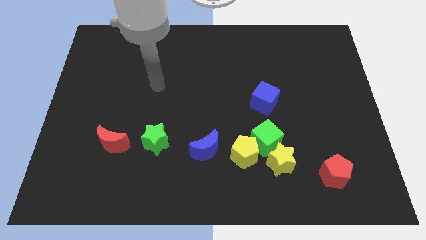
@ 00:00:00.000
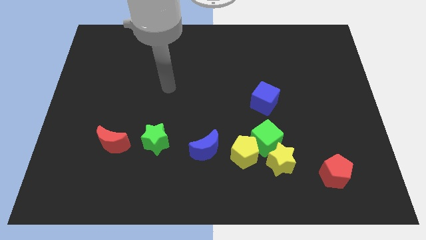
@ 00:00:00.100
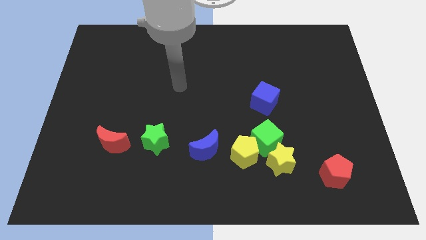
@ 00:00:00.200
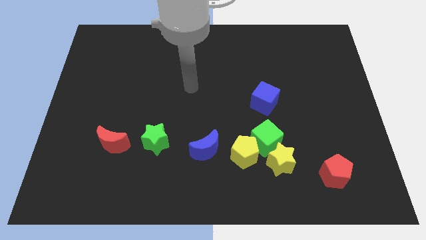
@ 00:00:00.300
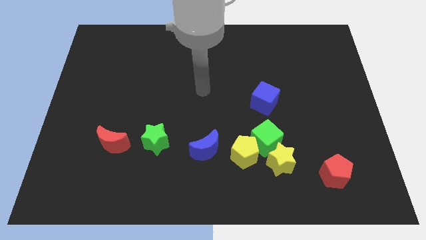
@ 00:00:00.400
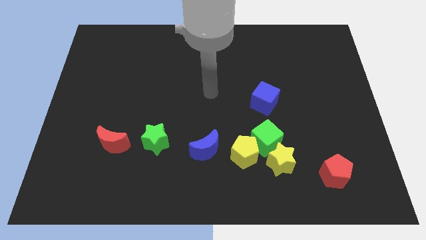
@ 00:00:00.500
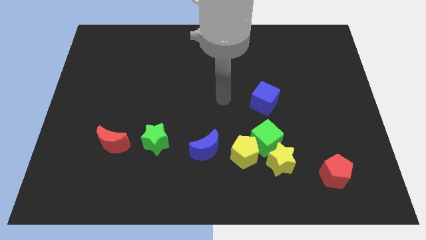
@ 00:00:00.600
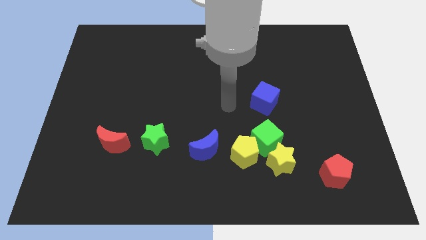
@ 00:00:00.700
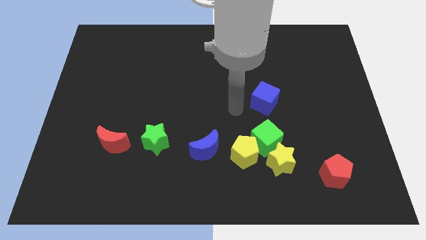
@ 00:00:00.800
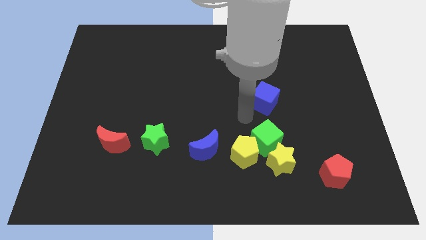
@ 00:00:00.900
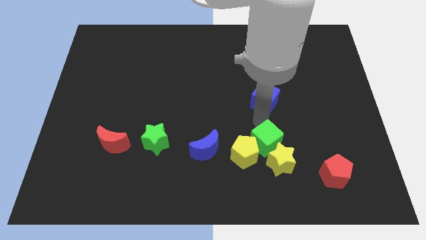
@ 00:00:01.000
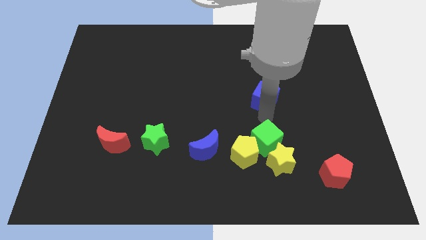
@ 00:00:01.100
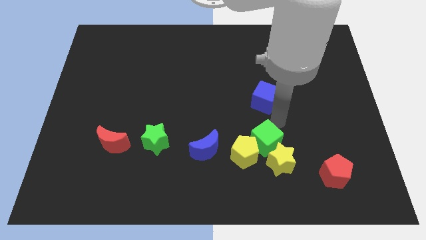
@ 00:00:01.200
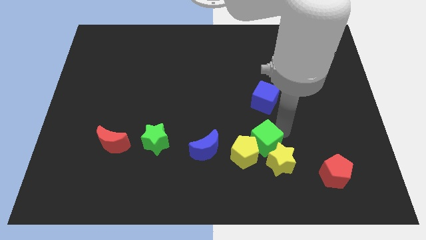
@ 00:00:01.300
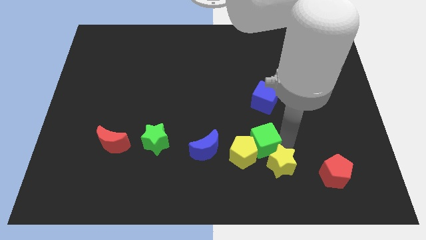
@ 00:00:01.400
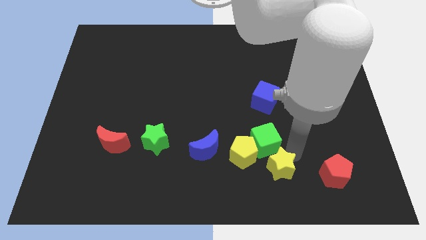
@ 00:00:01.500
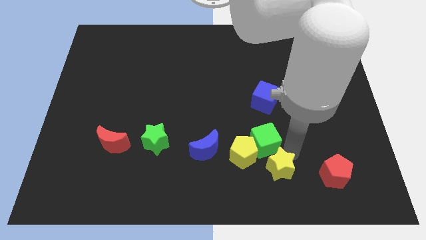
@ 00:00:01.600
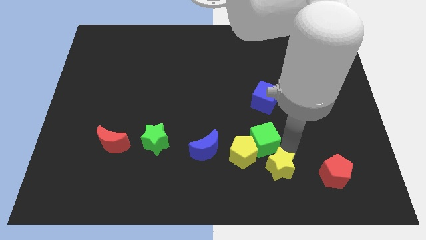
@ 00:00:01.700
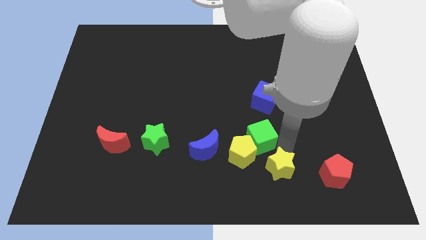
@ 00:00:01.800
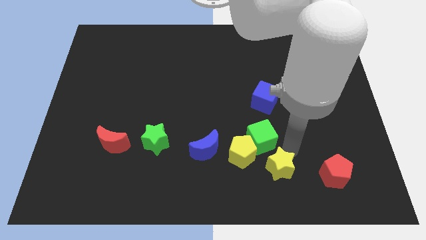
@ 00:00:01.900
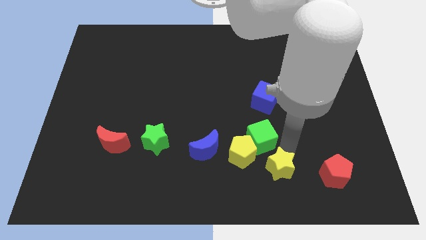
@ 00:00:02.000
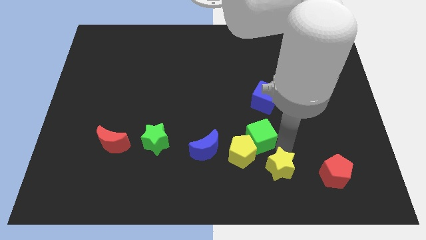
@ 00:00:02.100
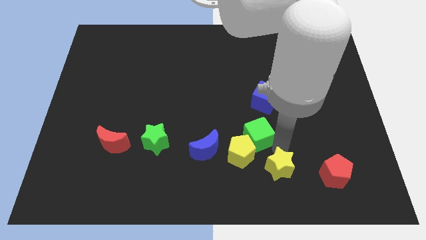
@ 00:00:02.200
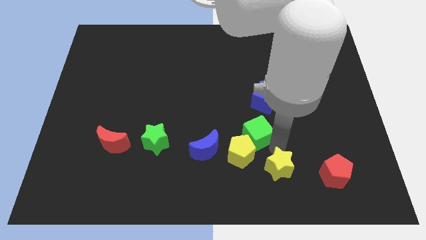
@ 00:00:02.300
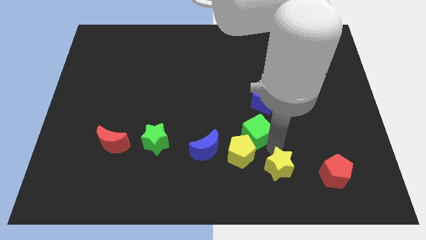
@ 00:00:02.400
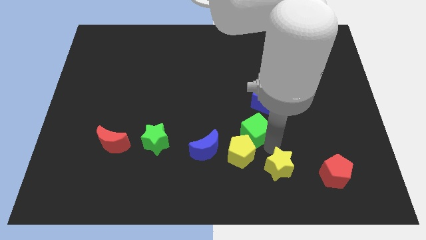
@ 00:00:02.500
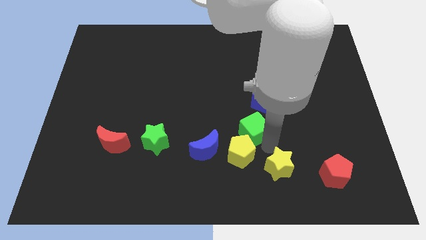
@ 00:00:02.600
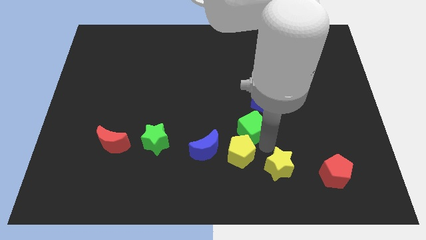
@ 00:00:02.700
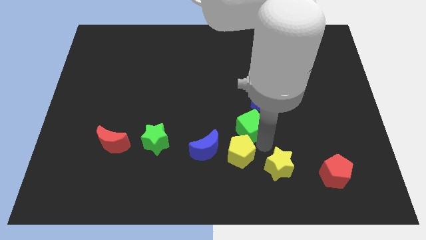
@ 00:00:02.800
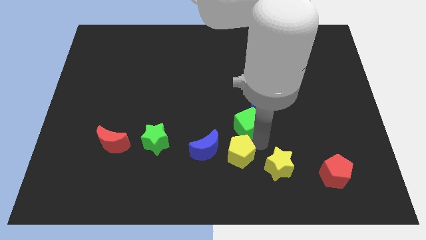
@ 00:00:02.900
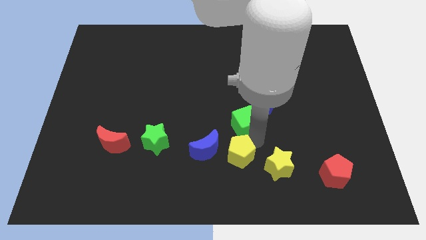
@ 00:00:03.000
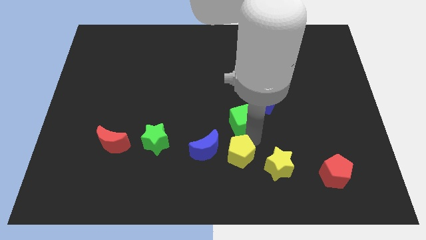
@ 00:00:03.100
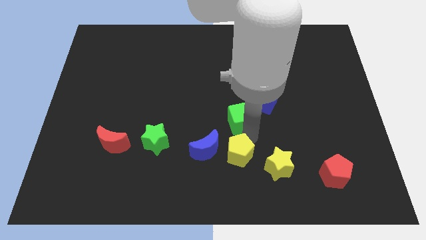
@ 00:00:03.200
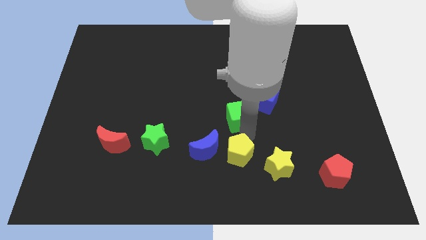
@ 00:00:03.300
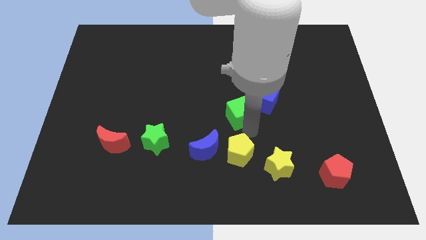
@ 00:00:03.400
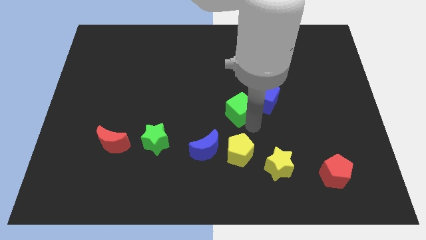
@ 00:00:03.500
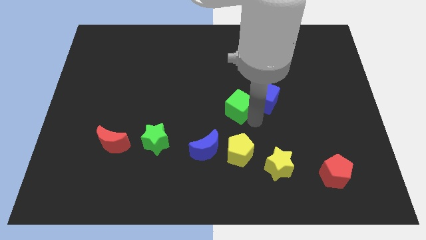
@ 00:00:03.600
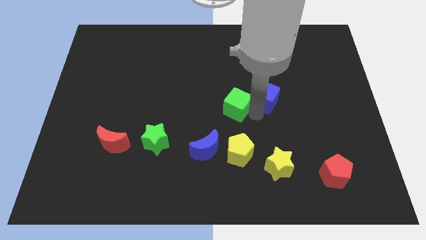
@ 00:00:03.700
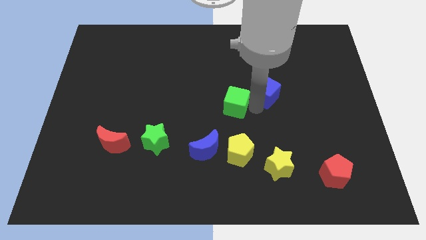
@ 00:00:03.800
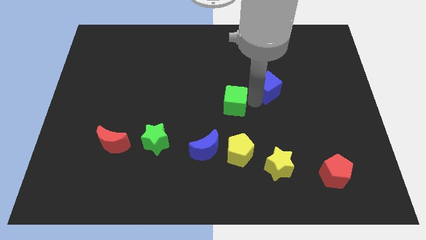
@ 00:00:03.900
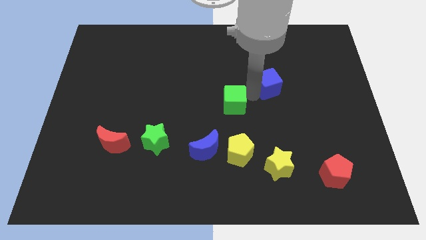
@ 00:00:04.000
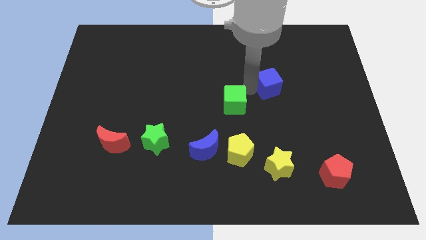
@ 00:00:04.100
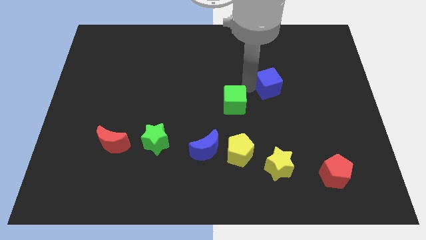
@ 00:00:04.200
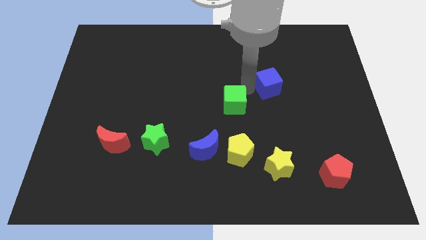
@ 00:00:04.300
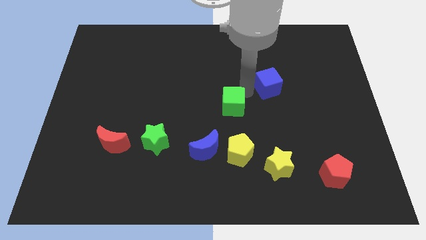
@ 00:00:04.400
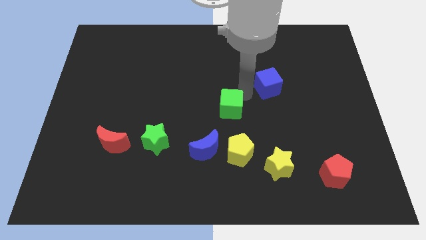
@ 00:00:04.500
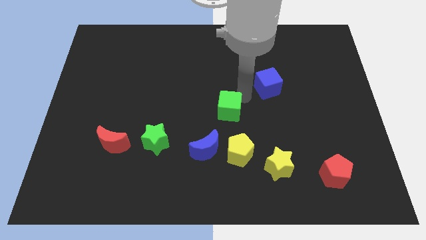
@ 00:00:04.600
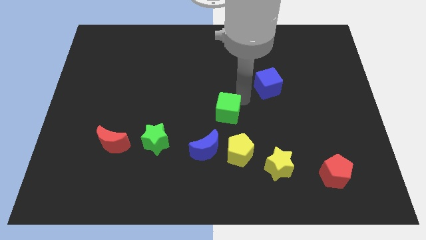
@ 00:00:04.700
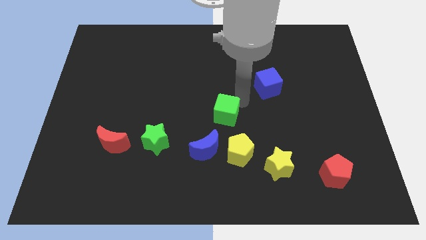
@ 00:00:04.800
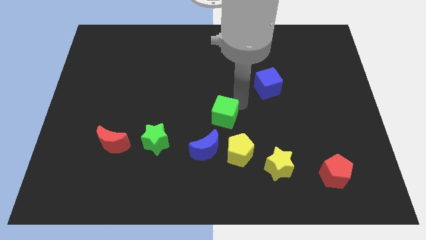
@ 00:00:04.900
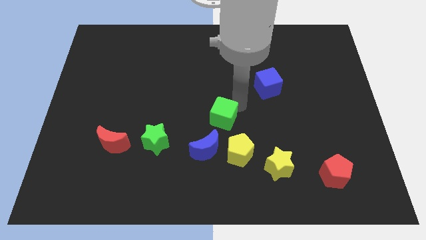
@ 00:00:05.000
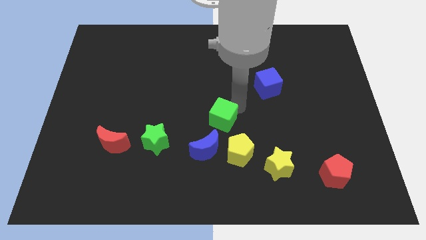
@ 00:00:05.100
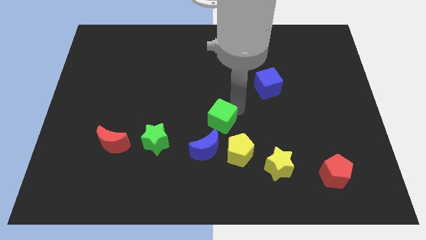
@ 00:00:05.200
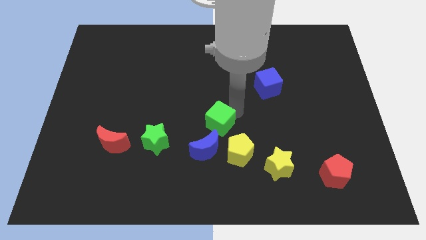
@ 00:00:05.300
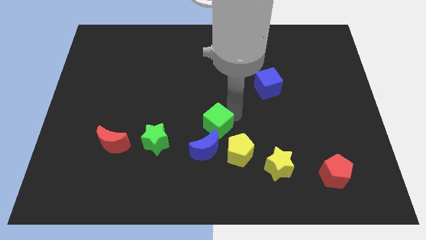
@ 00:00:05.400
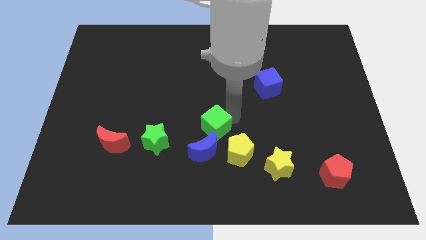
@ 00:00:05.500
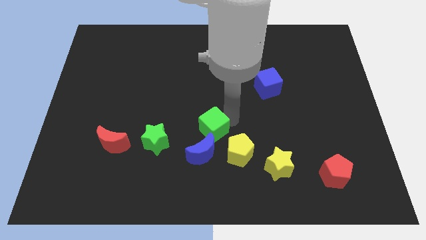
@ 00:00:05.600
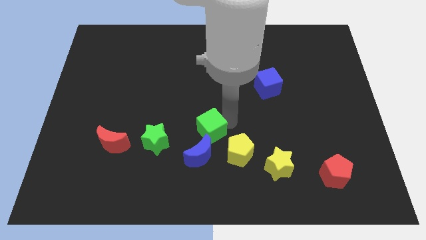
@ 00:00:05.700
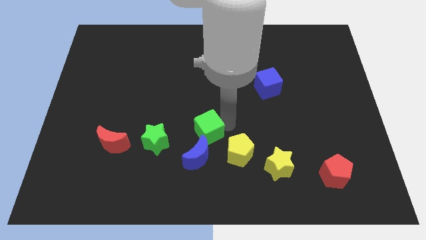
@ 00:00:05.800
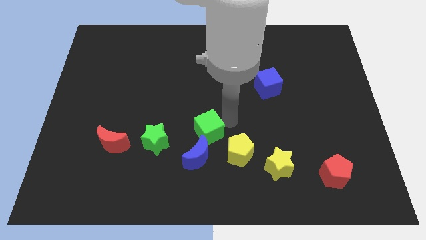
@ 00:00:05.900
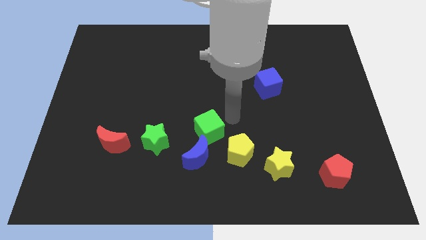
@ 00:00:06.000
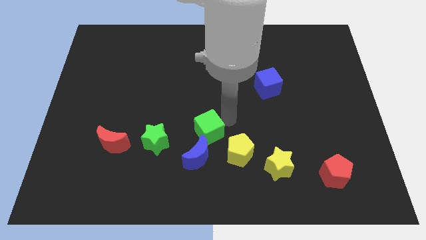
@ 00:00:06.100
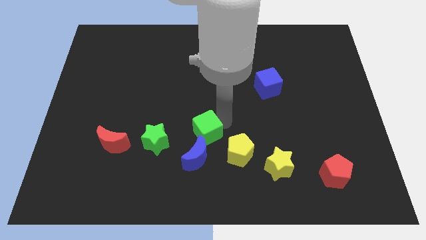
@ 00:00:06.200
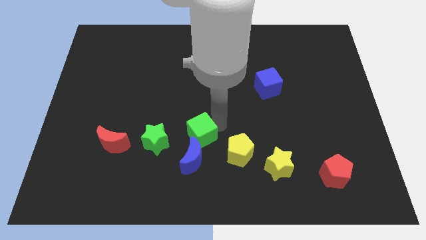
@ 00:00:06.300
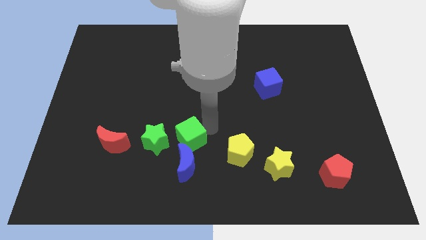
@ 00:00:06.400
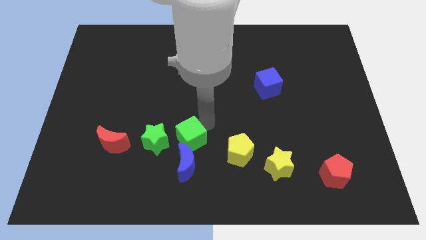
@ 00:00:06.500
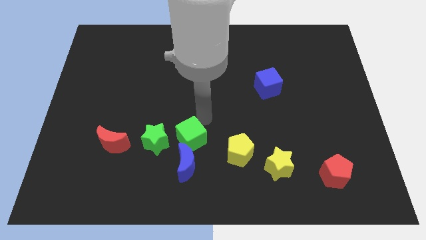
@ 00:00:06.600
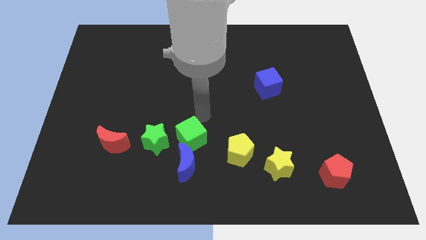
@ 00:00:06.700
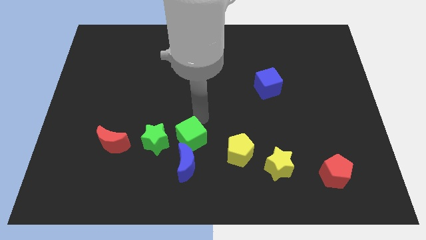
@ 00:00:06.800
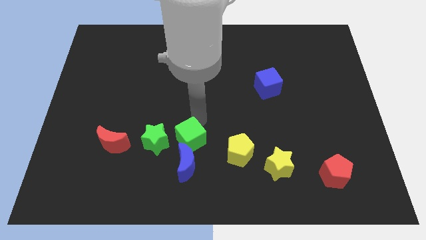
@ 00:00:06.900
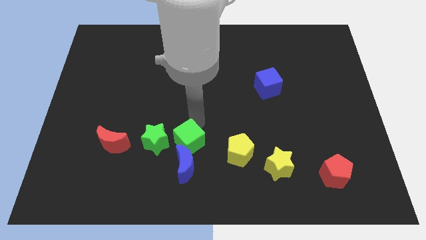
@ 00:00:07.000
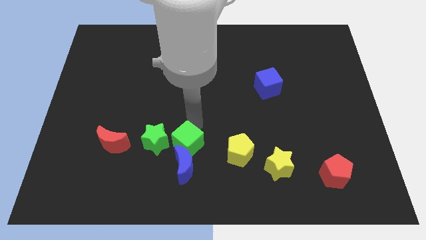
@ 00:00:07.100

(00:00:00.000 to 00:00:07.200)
slide the green cube to the bottom right side of the green star
